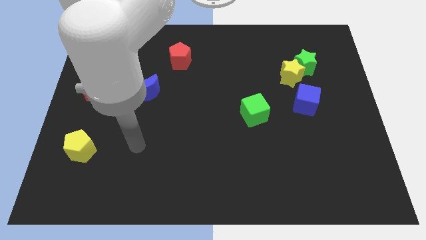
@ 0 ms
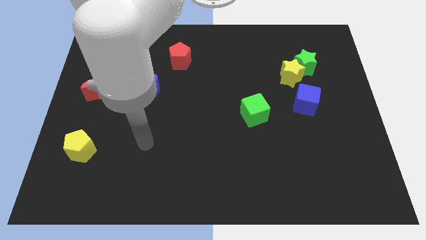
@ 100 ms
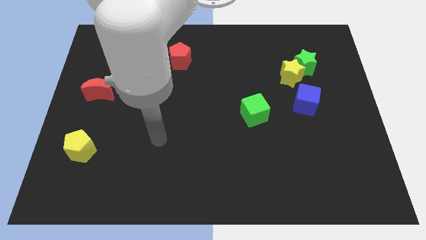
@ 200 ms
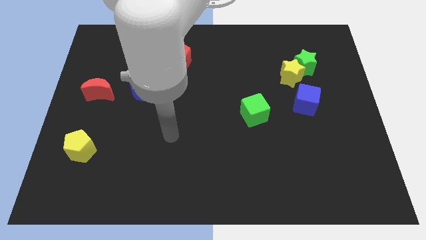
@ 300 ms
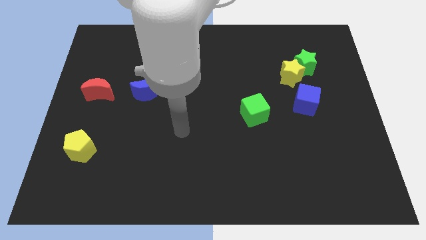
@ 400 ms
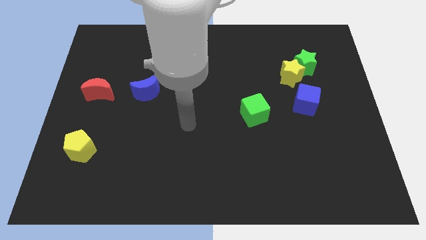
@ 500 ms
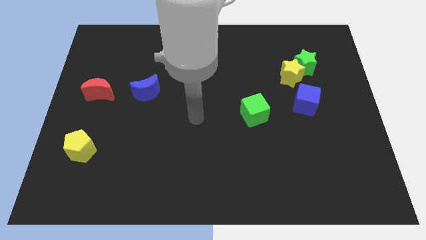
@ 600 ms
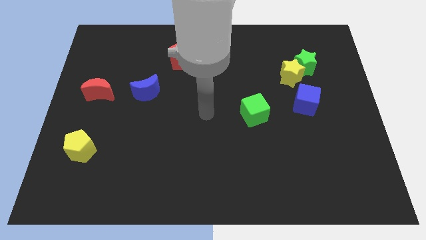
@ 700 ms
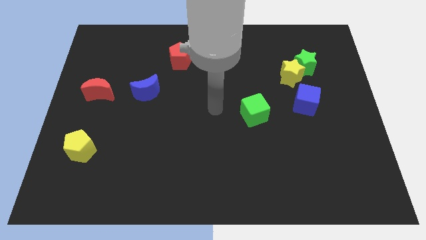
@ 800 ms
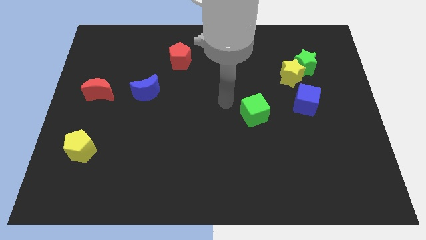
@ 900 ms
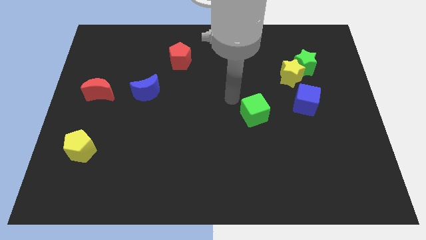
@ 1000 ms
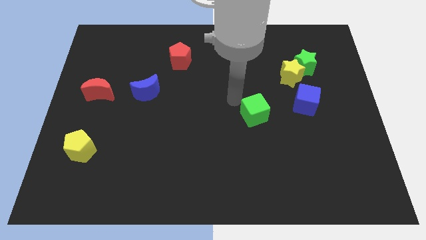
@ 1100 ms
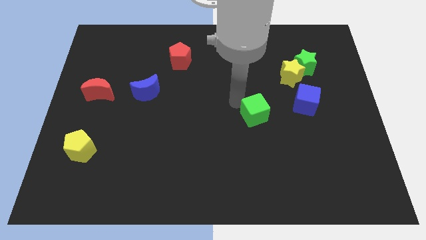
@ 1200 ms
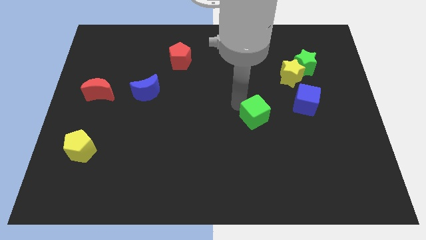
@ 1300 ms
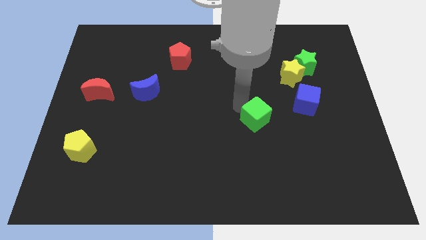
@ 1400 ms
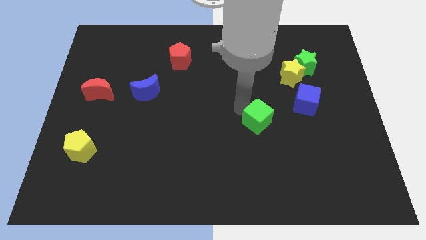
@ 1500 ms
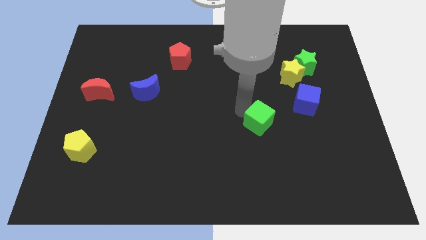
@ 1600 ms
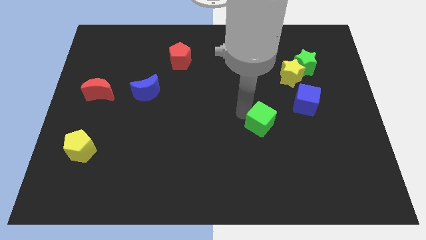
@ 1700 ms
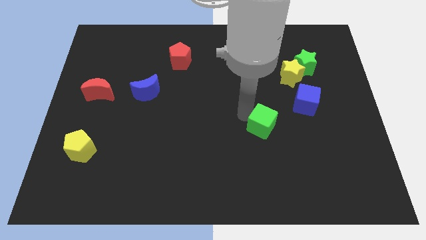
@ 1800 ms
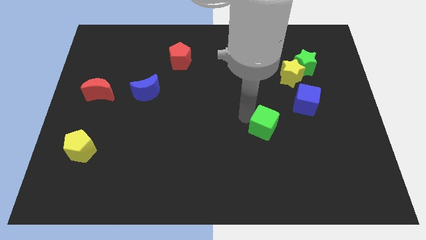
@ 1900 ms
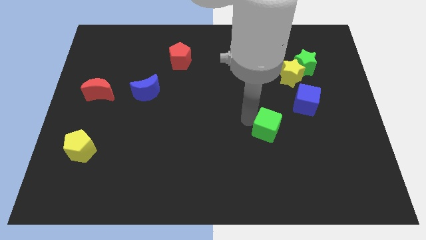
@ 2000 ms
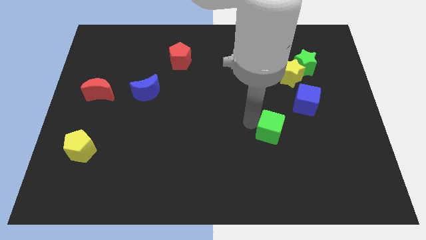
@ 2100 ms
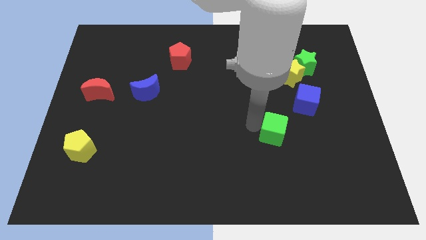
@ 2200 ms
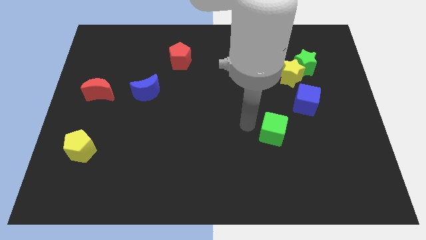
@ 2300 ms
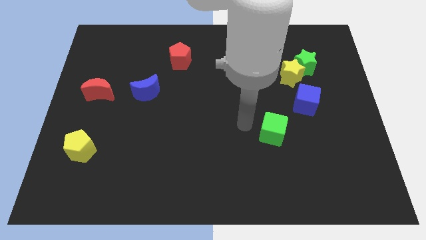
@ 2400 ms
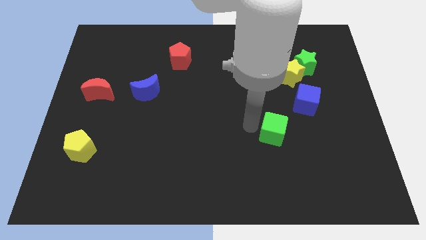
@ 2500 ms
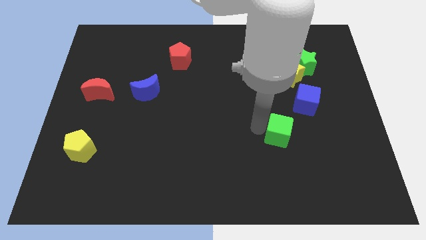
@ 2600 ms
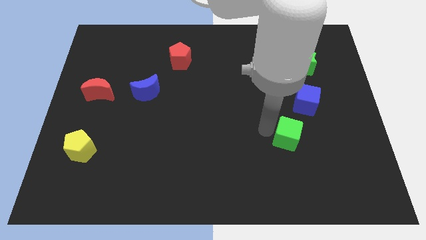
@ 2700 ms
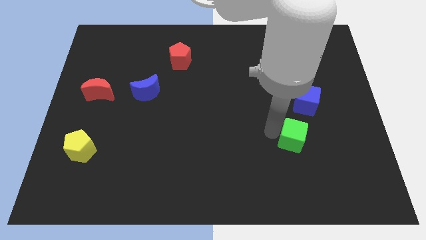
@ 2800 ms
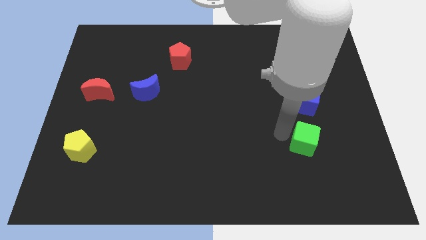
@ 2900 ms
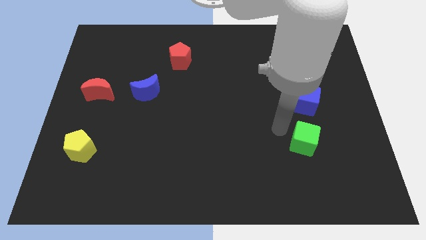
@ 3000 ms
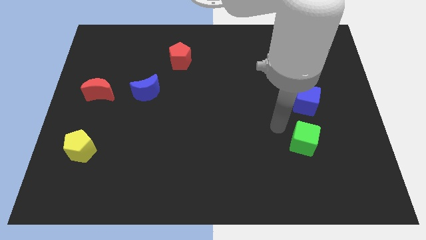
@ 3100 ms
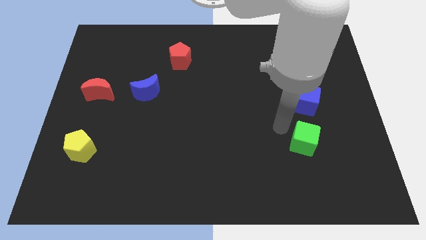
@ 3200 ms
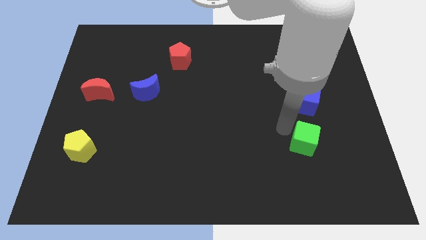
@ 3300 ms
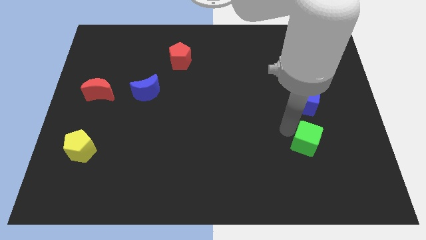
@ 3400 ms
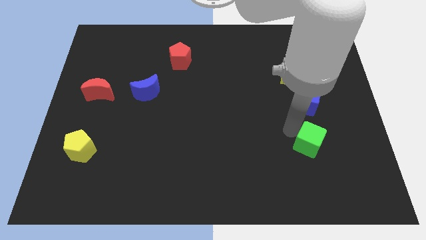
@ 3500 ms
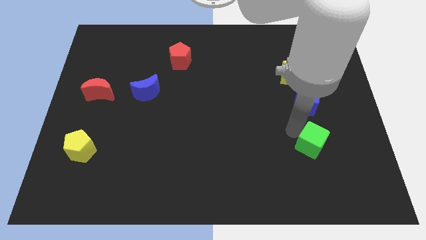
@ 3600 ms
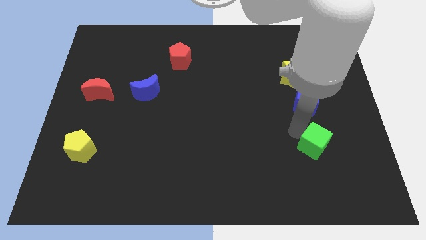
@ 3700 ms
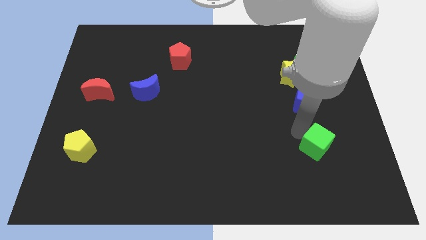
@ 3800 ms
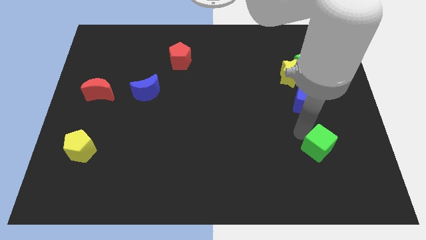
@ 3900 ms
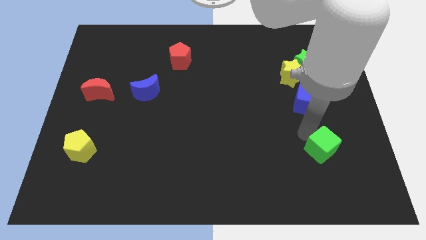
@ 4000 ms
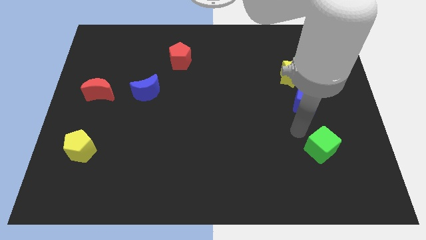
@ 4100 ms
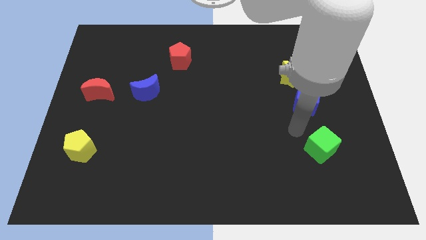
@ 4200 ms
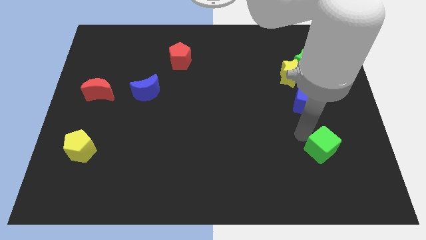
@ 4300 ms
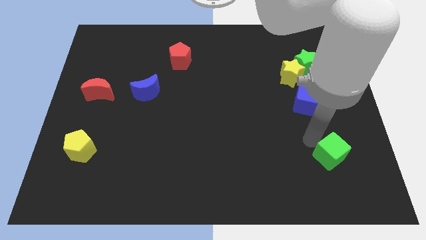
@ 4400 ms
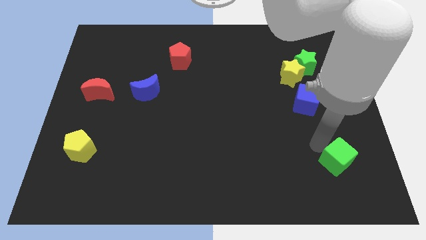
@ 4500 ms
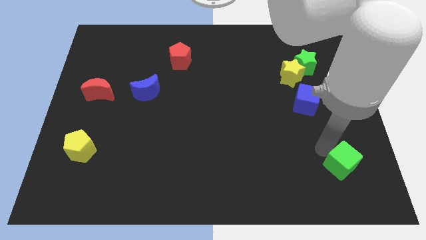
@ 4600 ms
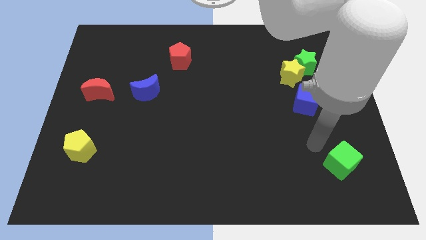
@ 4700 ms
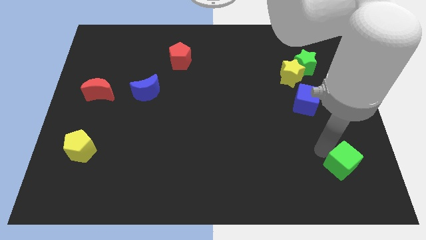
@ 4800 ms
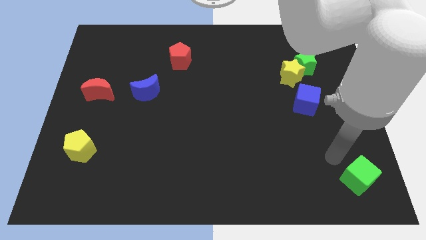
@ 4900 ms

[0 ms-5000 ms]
slide the green cube to the bottom right of the board

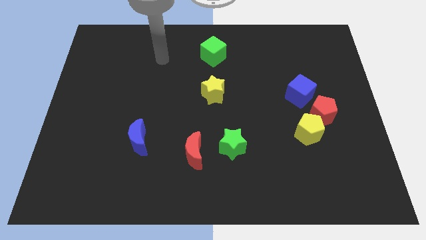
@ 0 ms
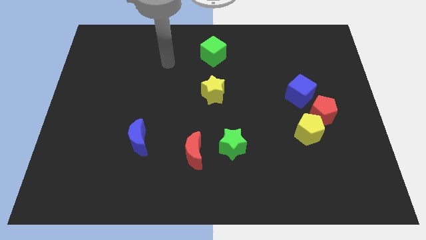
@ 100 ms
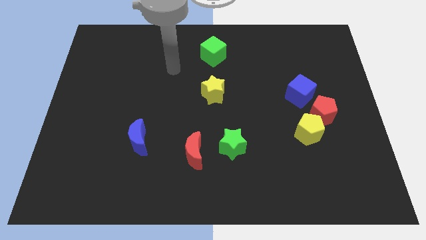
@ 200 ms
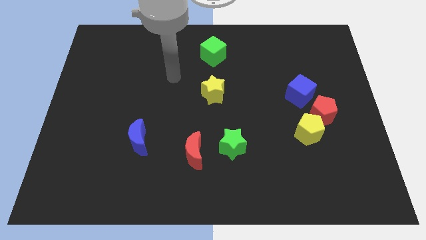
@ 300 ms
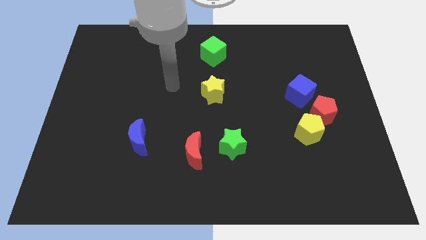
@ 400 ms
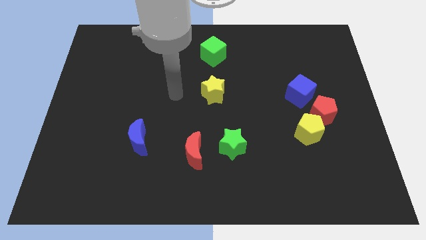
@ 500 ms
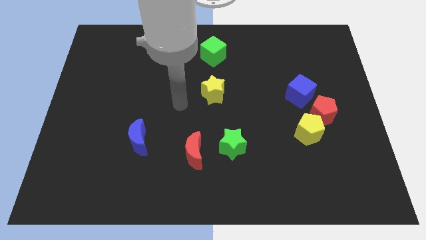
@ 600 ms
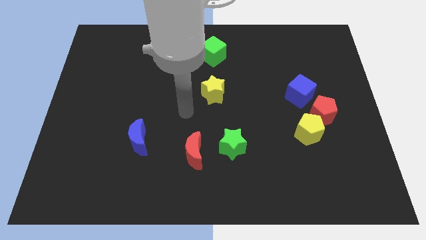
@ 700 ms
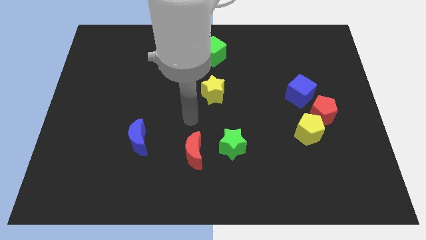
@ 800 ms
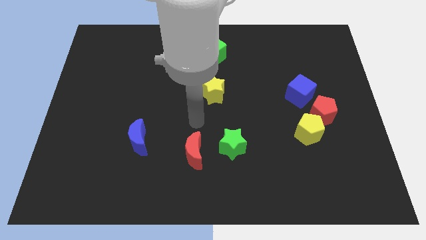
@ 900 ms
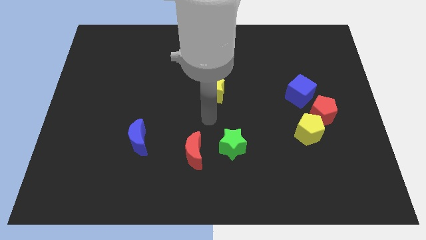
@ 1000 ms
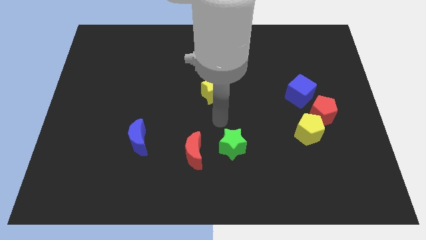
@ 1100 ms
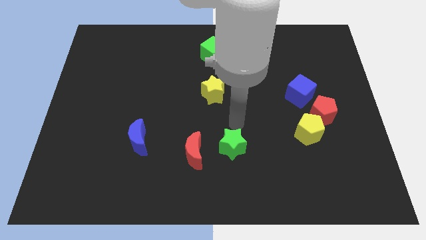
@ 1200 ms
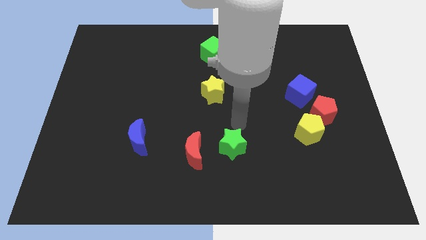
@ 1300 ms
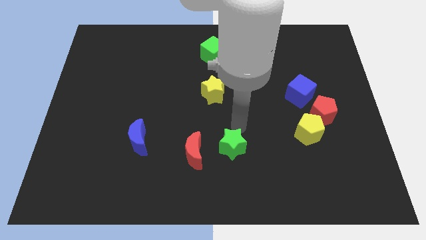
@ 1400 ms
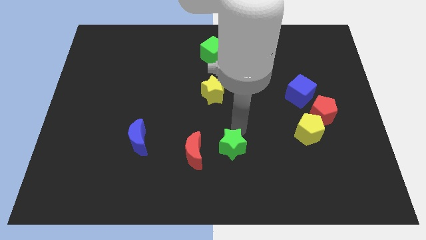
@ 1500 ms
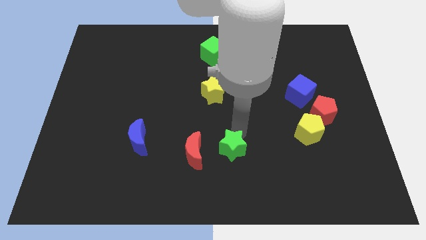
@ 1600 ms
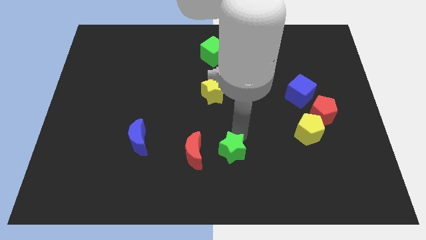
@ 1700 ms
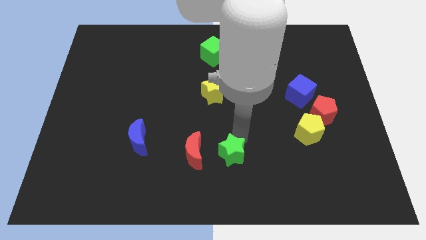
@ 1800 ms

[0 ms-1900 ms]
put the green star to the bottom
